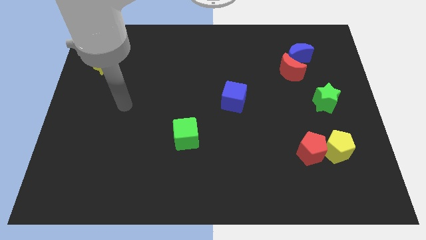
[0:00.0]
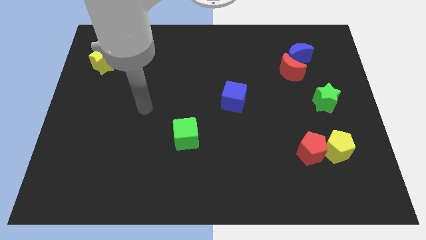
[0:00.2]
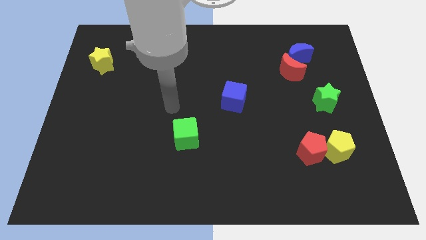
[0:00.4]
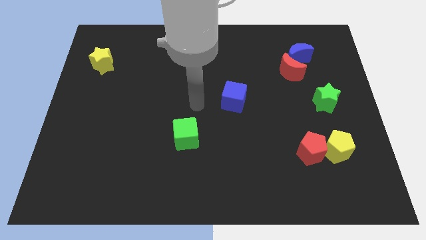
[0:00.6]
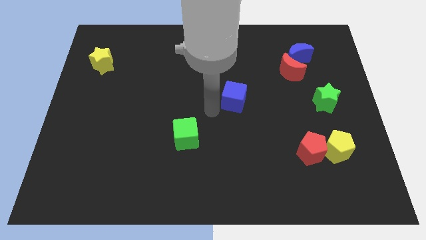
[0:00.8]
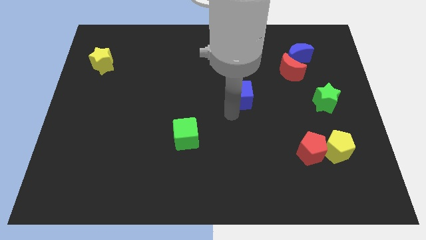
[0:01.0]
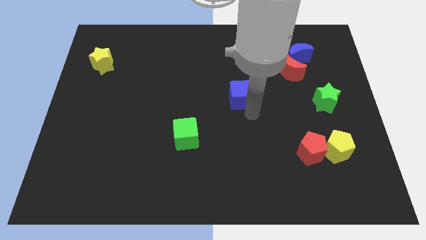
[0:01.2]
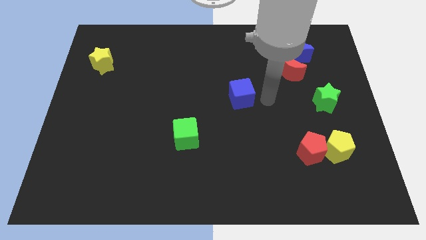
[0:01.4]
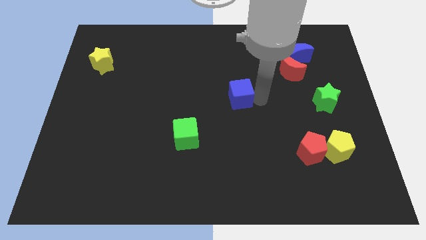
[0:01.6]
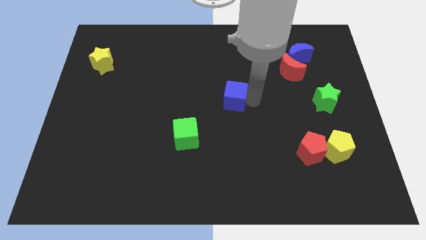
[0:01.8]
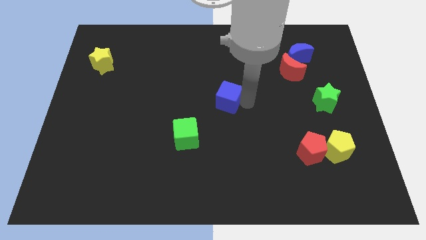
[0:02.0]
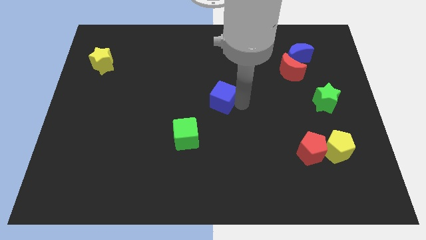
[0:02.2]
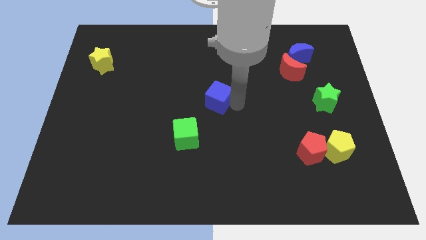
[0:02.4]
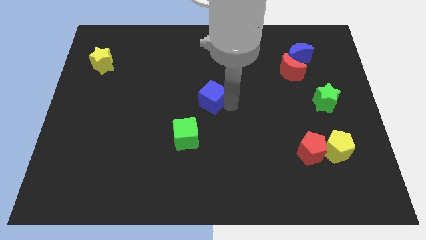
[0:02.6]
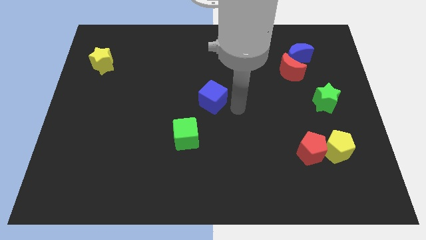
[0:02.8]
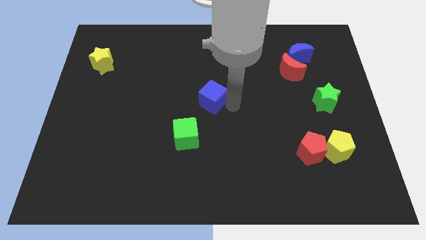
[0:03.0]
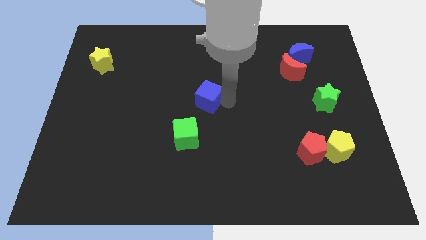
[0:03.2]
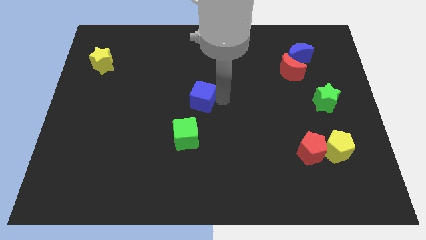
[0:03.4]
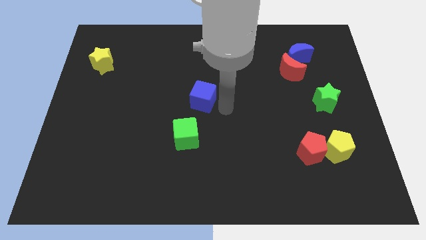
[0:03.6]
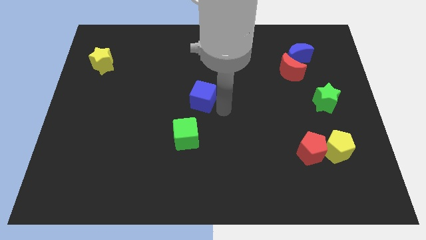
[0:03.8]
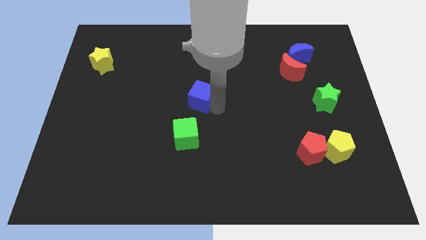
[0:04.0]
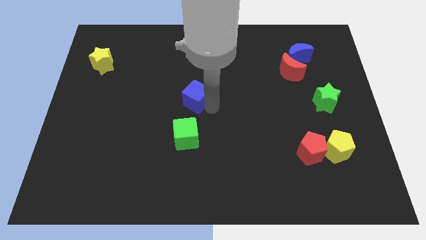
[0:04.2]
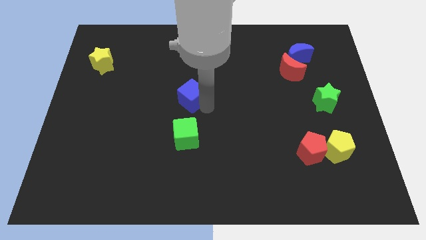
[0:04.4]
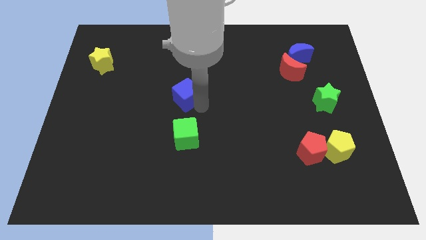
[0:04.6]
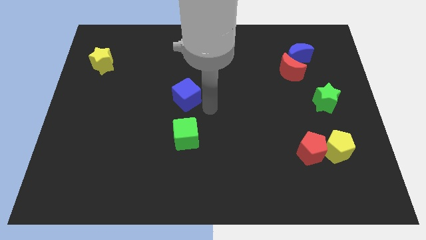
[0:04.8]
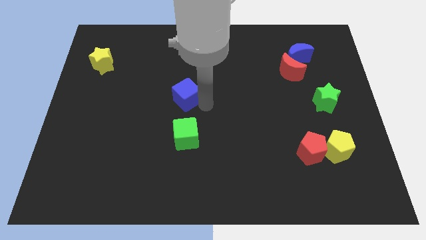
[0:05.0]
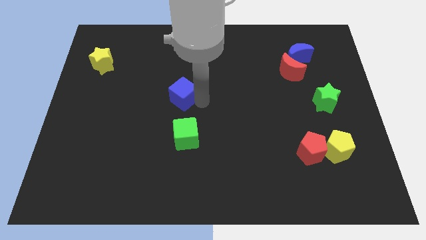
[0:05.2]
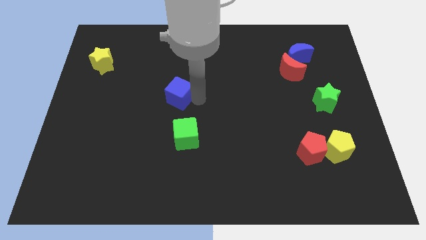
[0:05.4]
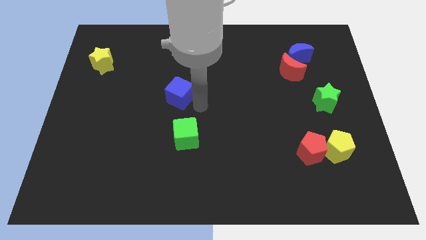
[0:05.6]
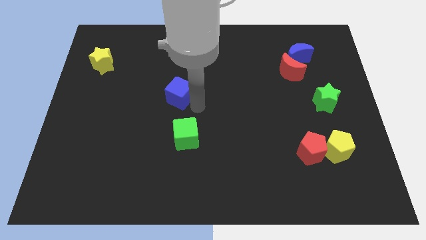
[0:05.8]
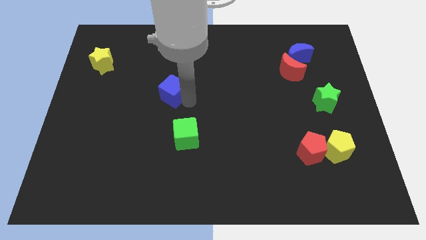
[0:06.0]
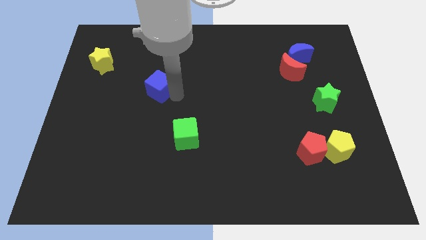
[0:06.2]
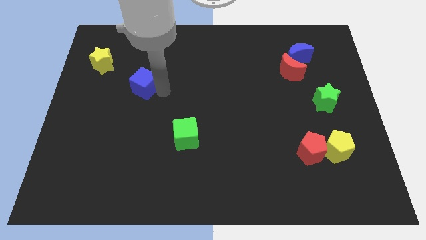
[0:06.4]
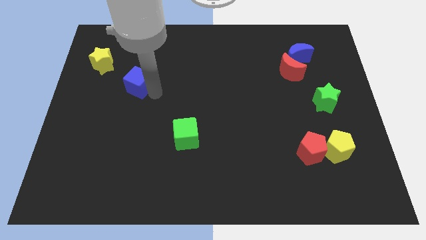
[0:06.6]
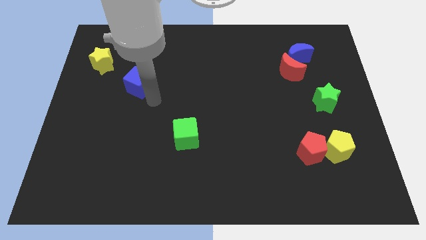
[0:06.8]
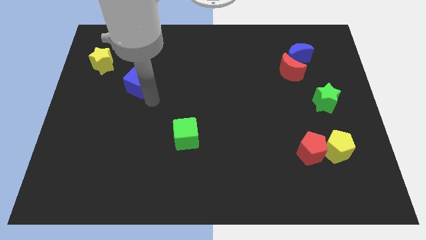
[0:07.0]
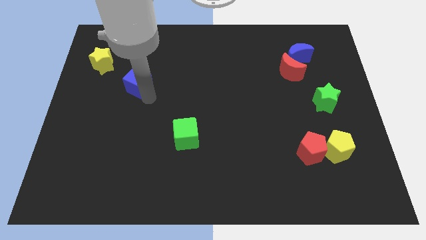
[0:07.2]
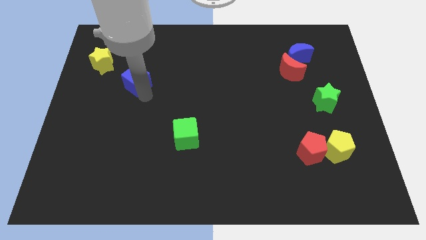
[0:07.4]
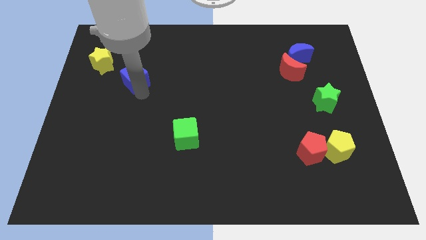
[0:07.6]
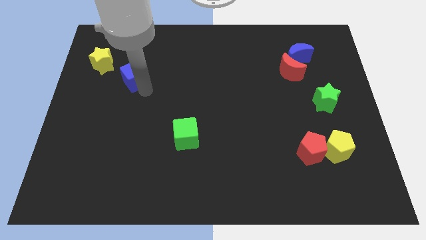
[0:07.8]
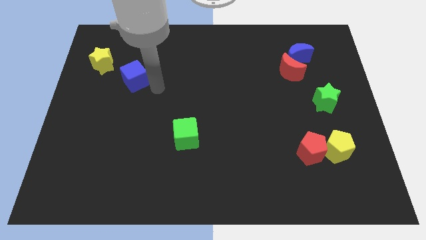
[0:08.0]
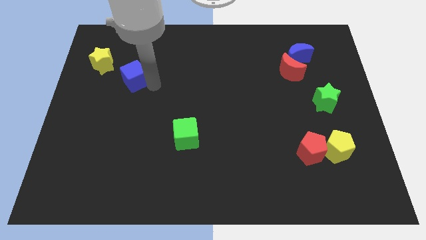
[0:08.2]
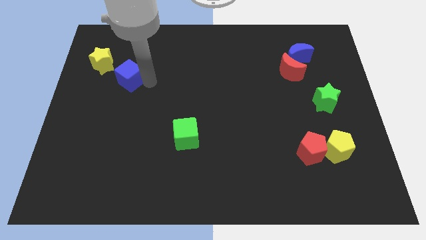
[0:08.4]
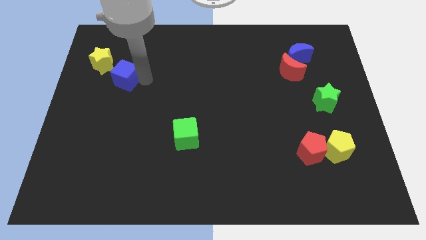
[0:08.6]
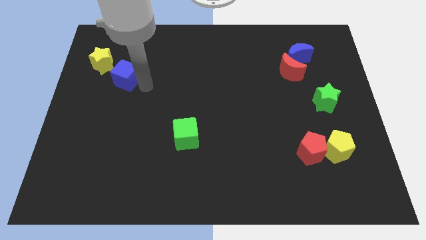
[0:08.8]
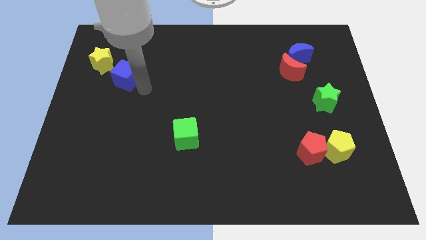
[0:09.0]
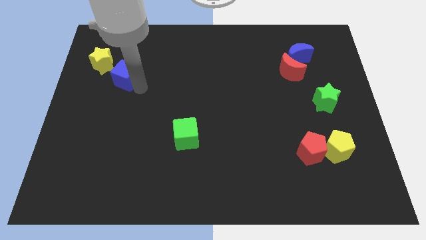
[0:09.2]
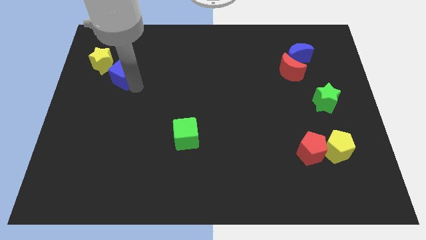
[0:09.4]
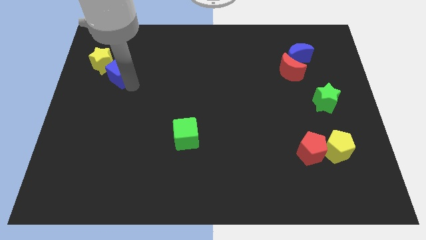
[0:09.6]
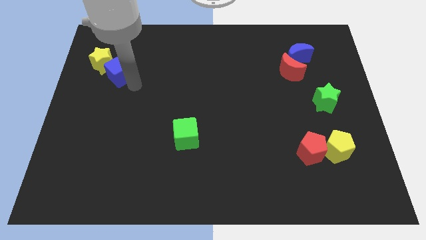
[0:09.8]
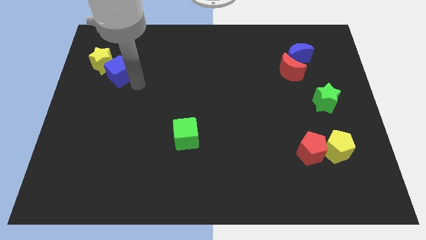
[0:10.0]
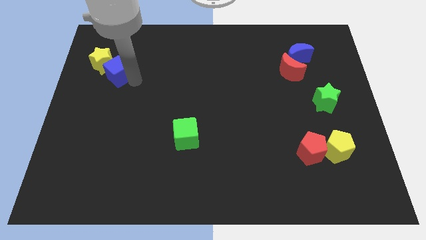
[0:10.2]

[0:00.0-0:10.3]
put the blue cube to the yellow star

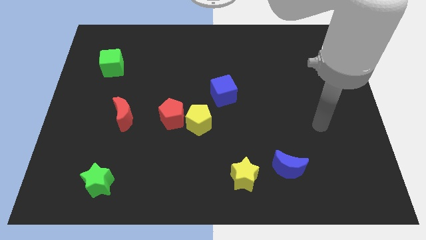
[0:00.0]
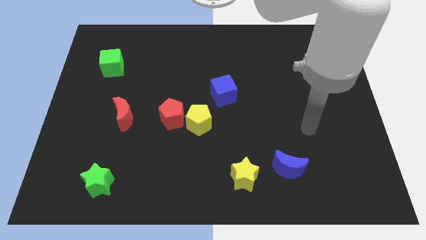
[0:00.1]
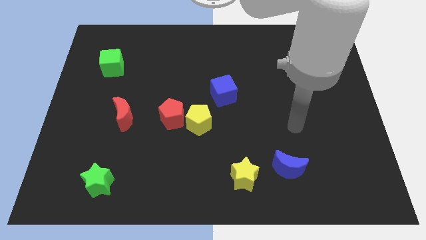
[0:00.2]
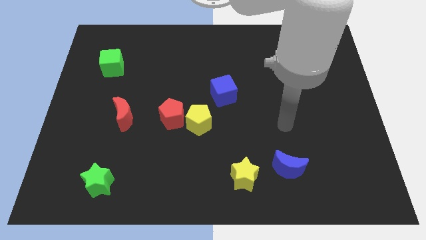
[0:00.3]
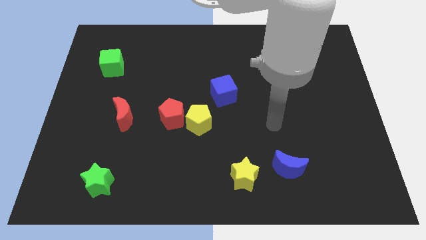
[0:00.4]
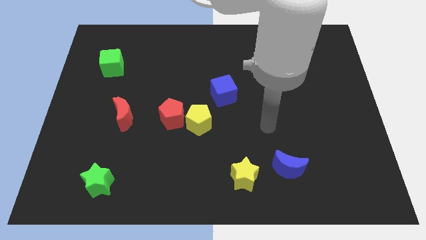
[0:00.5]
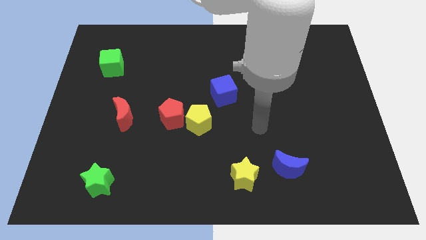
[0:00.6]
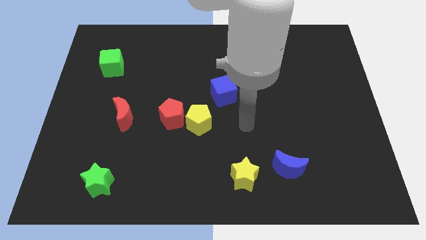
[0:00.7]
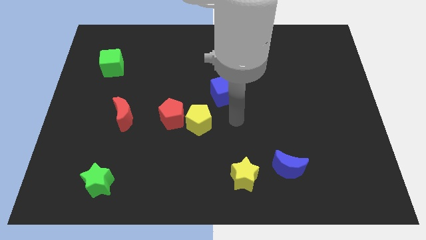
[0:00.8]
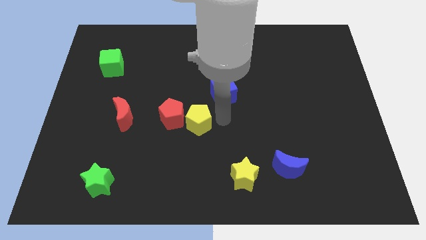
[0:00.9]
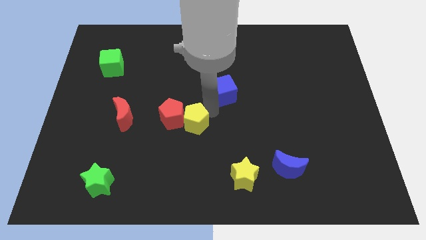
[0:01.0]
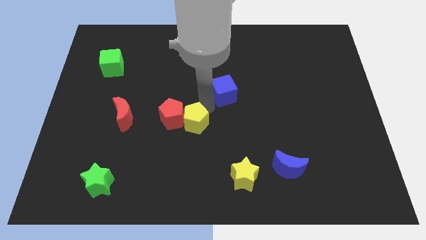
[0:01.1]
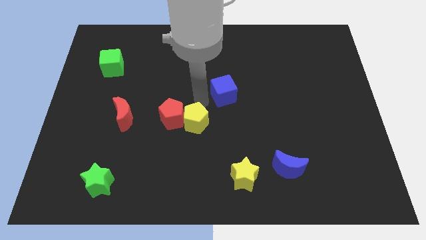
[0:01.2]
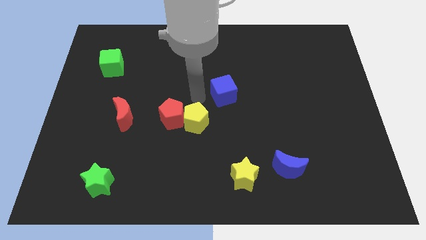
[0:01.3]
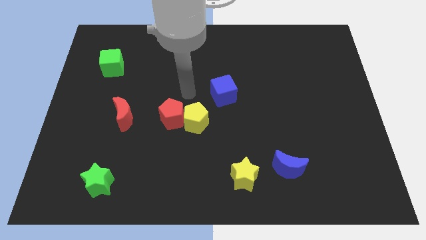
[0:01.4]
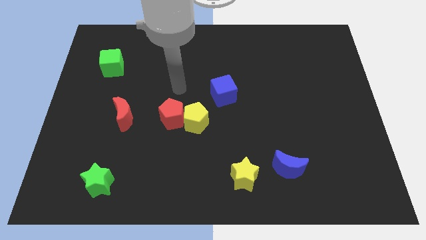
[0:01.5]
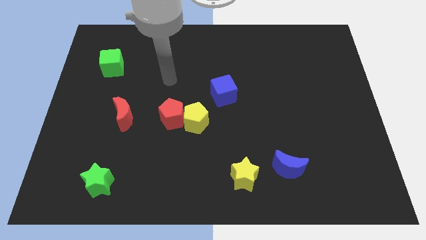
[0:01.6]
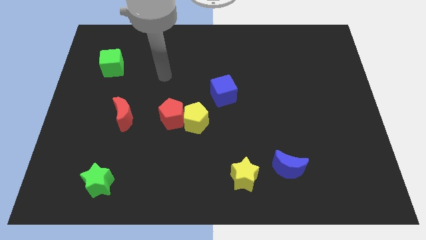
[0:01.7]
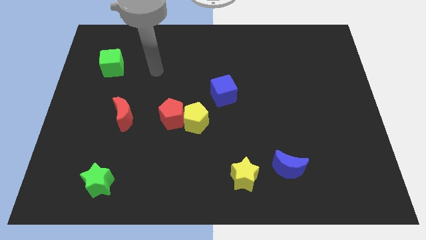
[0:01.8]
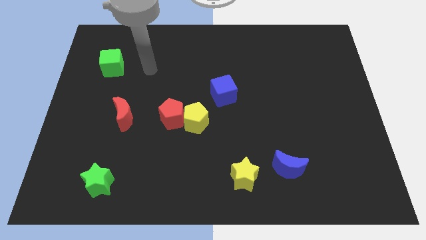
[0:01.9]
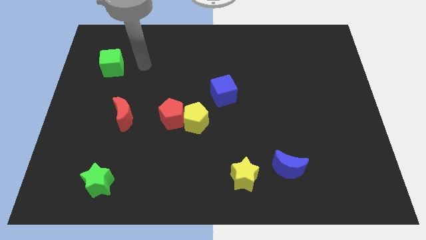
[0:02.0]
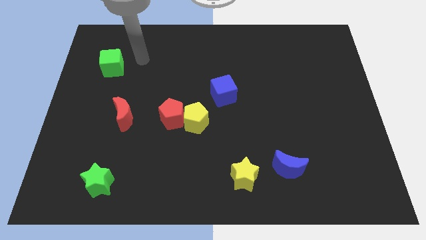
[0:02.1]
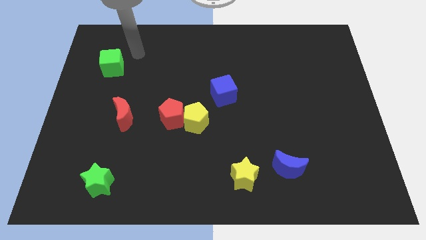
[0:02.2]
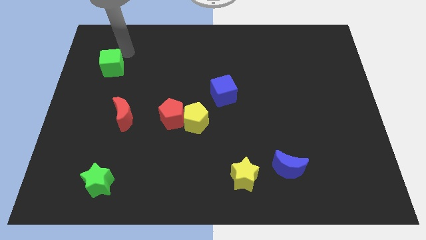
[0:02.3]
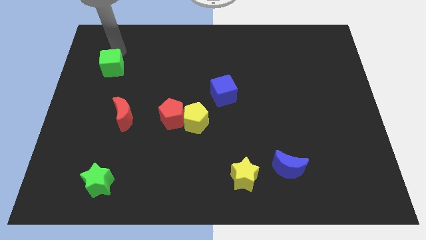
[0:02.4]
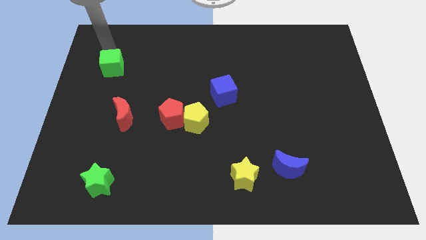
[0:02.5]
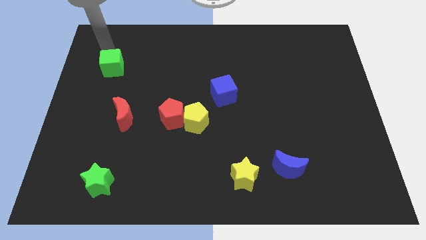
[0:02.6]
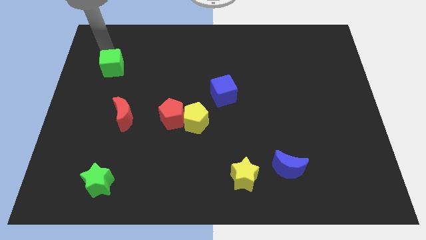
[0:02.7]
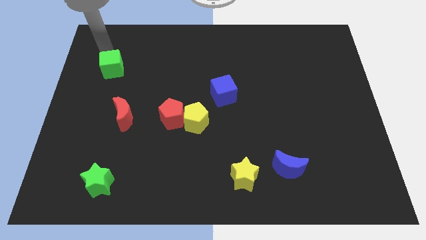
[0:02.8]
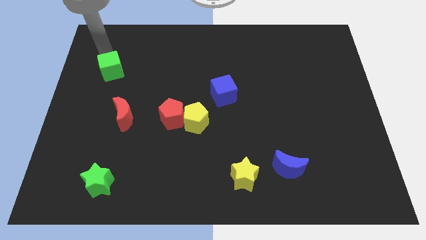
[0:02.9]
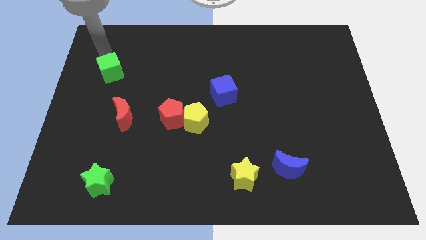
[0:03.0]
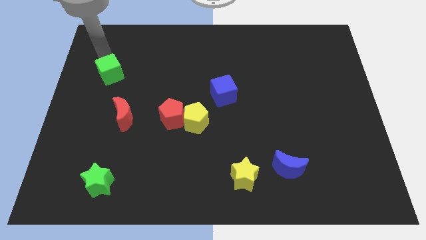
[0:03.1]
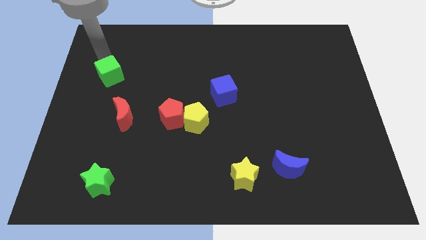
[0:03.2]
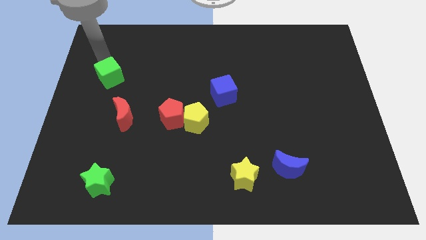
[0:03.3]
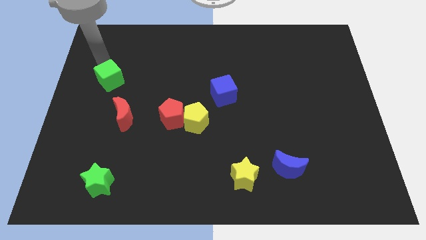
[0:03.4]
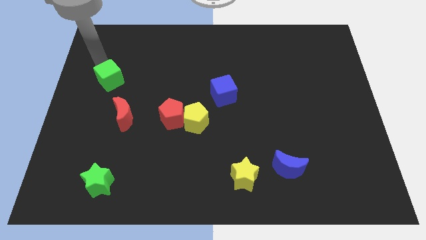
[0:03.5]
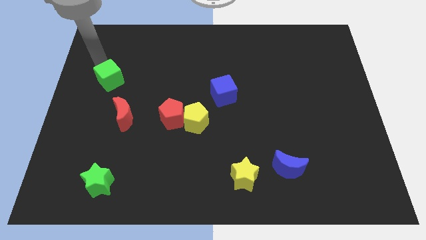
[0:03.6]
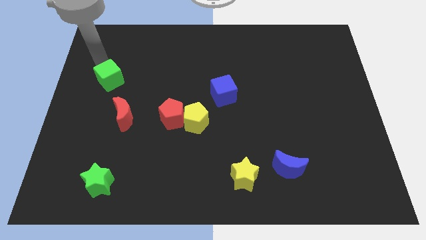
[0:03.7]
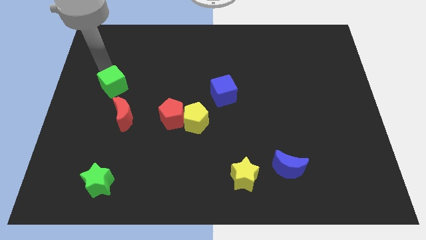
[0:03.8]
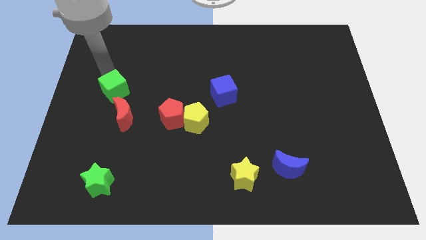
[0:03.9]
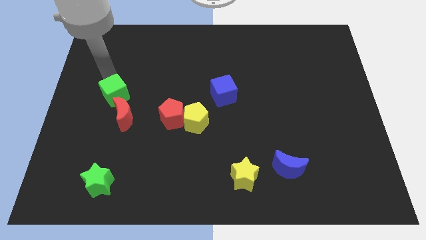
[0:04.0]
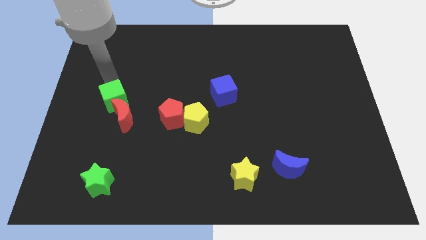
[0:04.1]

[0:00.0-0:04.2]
slide the green cube to the red moon
